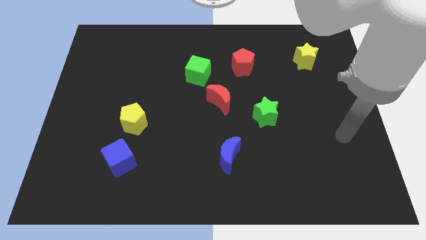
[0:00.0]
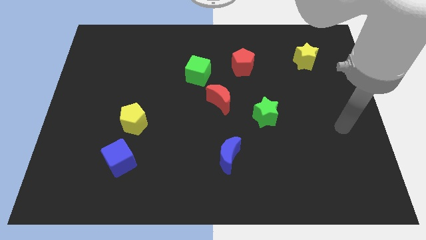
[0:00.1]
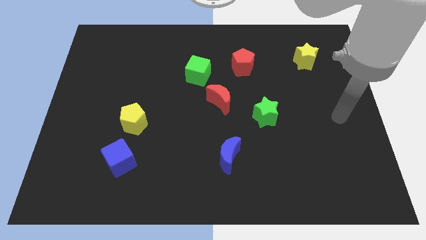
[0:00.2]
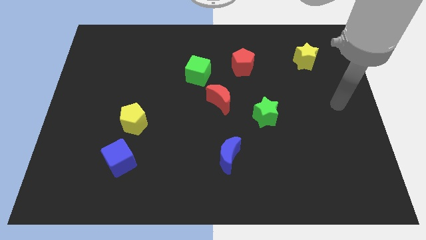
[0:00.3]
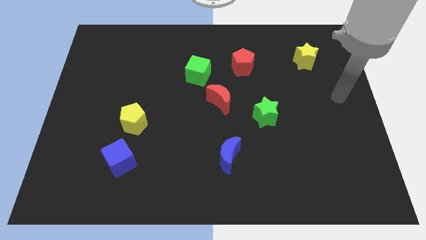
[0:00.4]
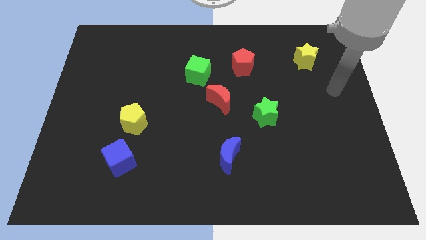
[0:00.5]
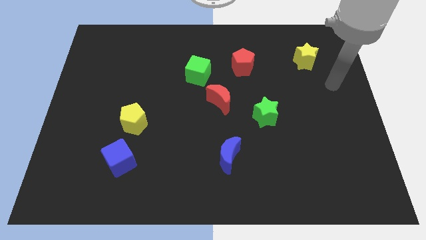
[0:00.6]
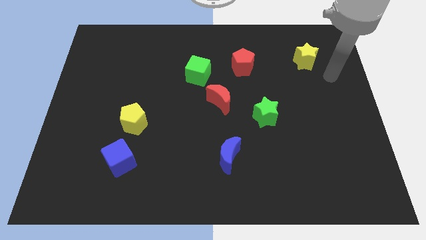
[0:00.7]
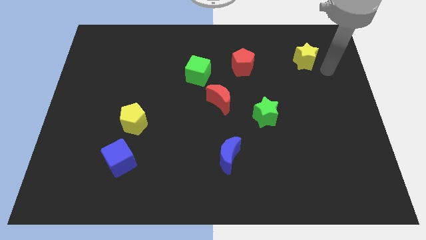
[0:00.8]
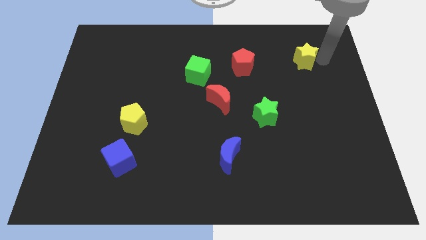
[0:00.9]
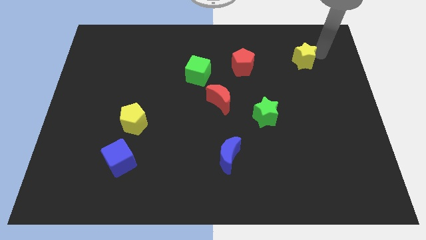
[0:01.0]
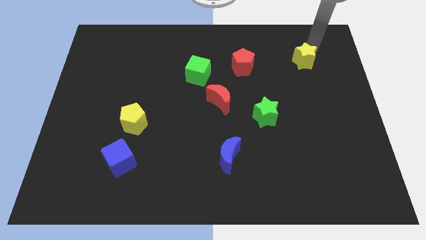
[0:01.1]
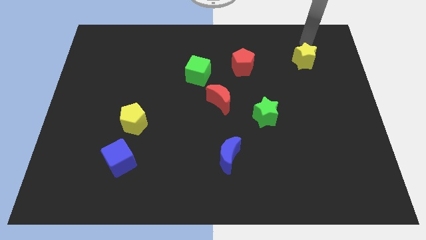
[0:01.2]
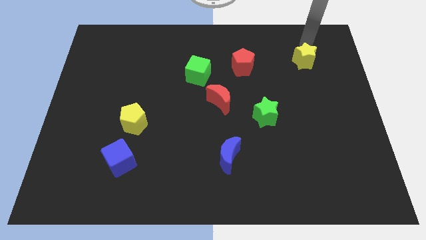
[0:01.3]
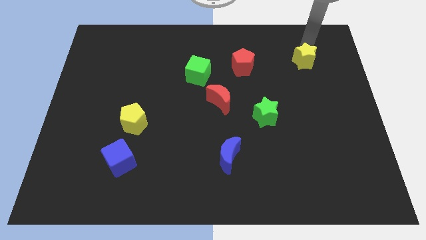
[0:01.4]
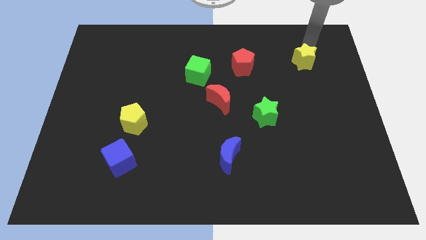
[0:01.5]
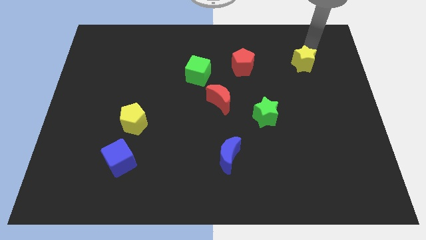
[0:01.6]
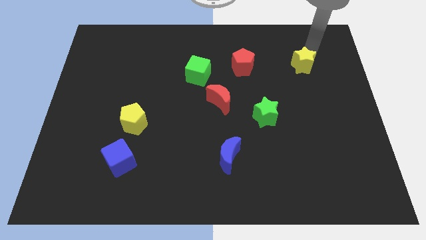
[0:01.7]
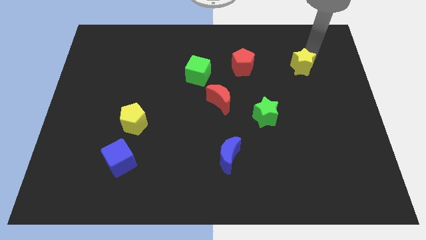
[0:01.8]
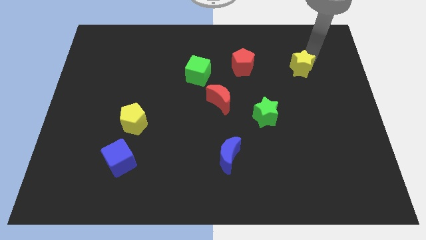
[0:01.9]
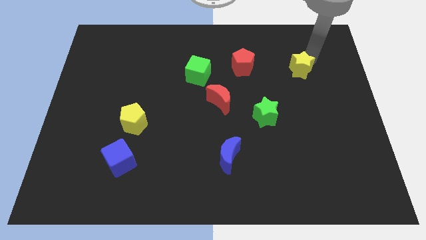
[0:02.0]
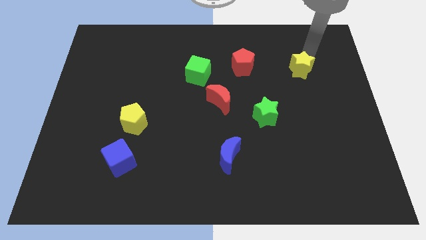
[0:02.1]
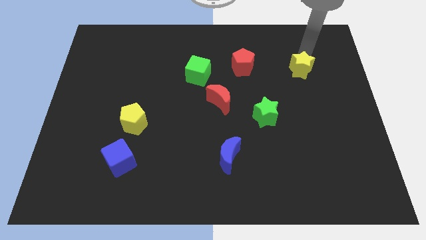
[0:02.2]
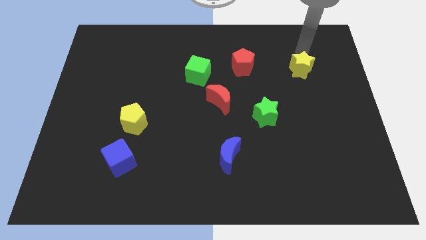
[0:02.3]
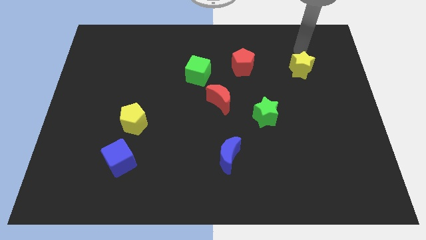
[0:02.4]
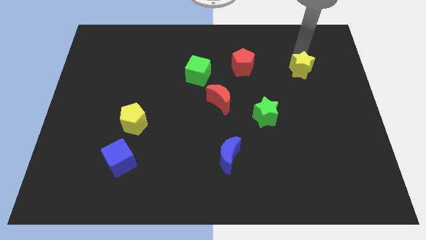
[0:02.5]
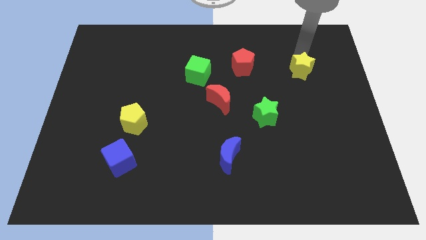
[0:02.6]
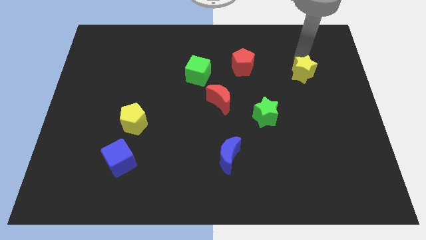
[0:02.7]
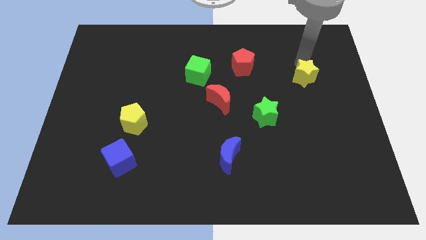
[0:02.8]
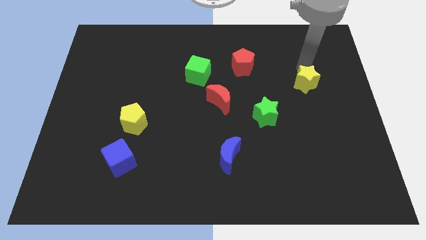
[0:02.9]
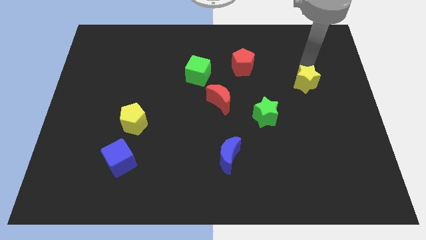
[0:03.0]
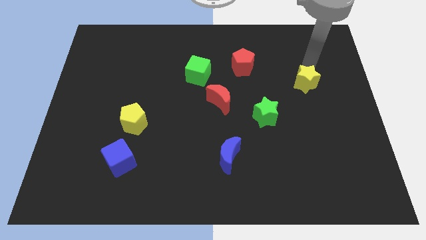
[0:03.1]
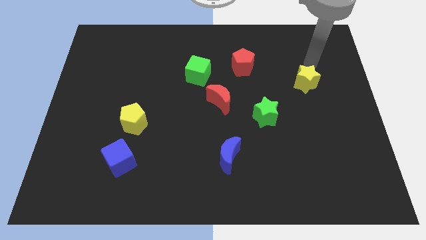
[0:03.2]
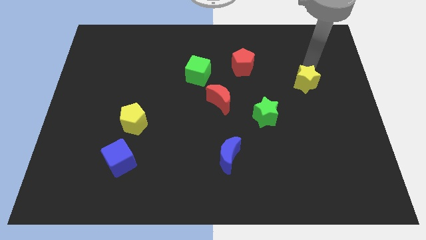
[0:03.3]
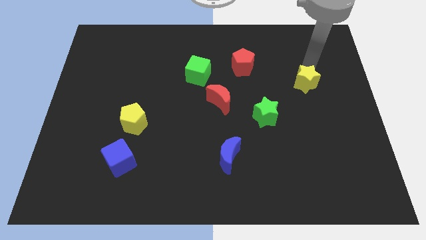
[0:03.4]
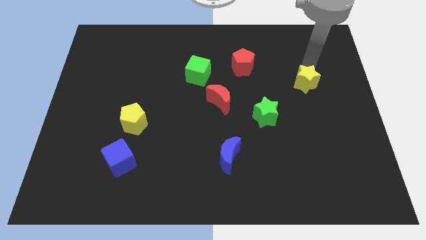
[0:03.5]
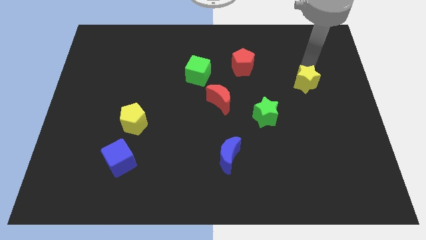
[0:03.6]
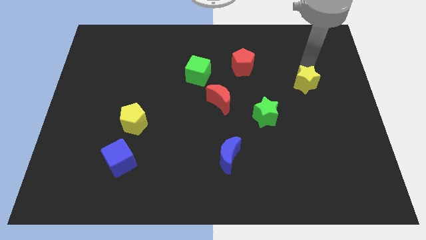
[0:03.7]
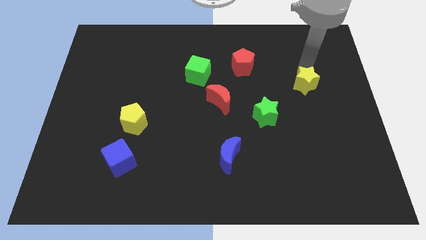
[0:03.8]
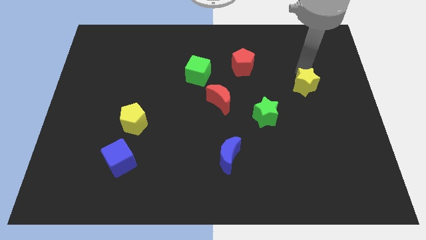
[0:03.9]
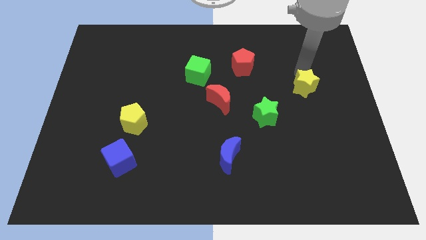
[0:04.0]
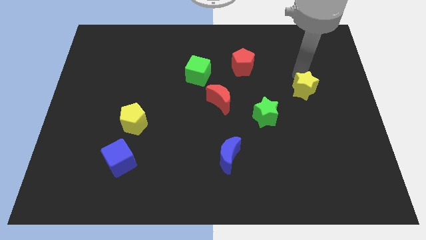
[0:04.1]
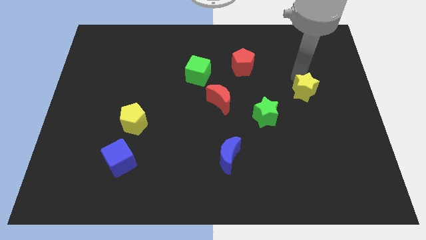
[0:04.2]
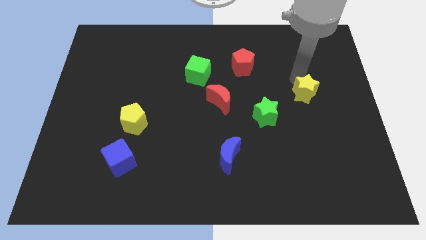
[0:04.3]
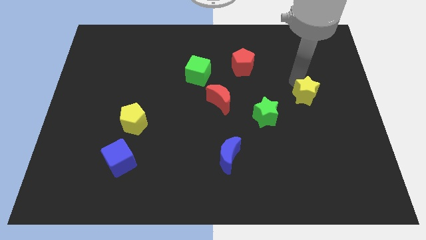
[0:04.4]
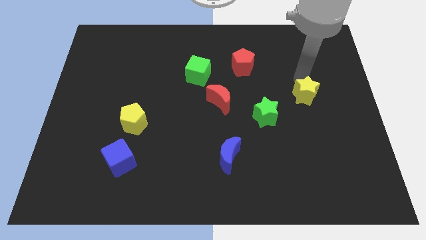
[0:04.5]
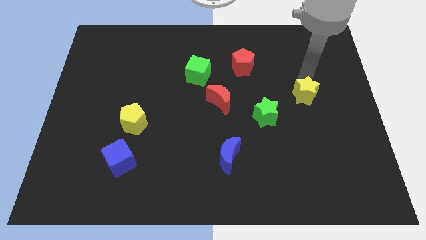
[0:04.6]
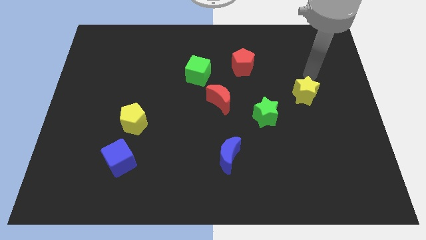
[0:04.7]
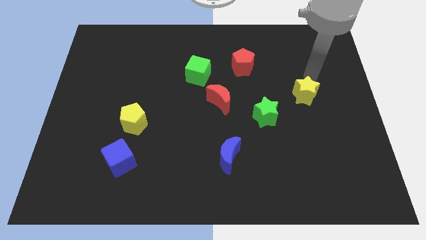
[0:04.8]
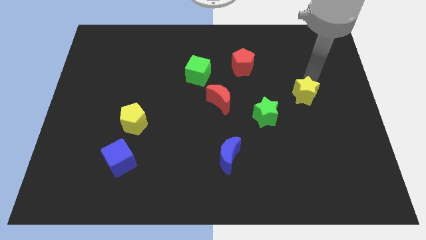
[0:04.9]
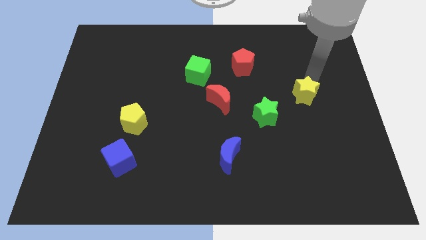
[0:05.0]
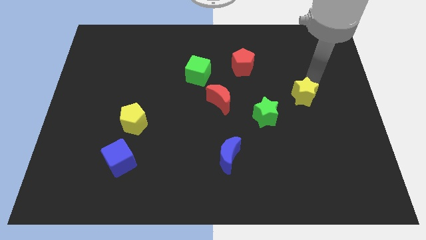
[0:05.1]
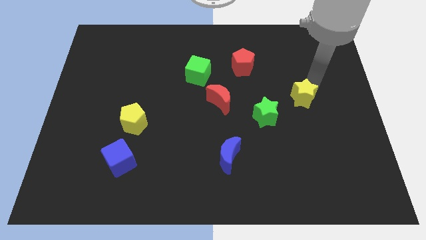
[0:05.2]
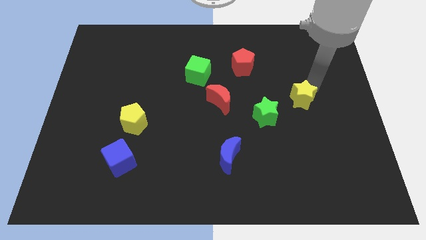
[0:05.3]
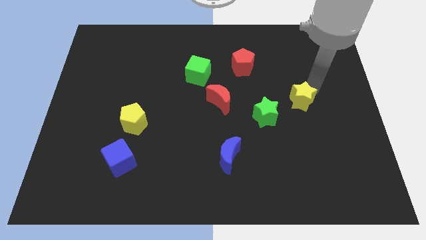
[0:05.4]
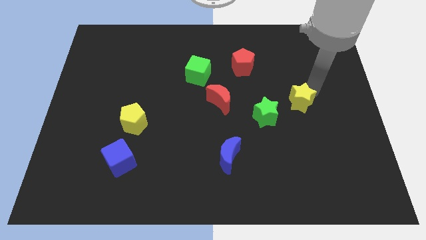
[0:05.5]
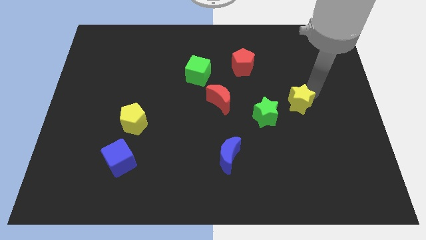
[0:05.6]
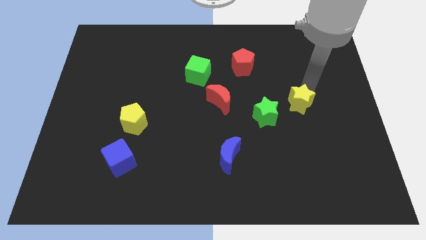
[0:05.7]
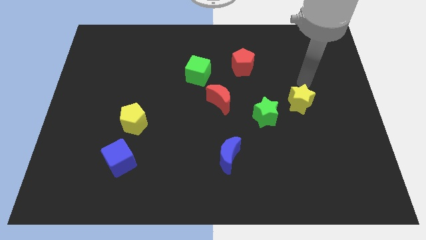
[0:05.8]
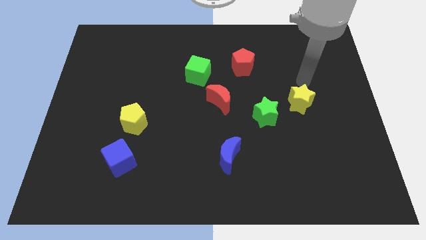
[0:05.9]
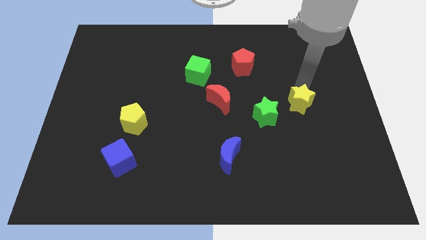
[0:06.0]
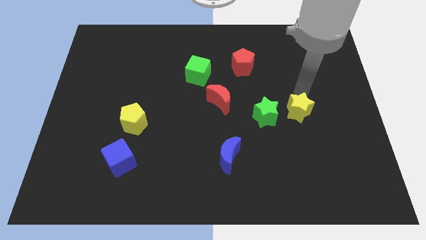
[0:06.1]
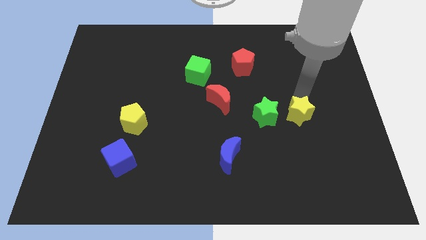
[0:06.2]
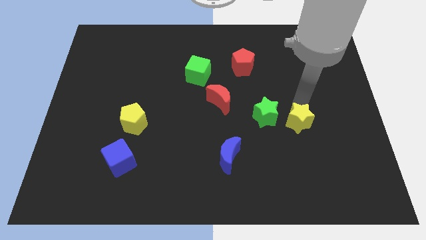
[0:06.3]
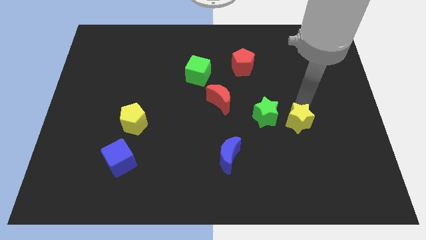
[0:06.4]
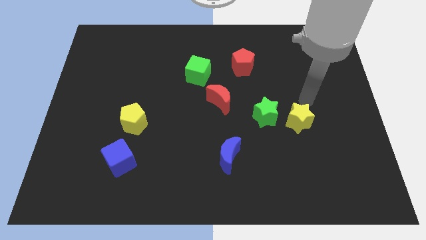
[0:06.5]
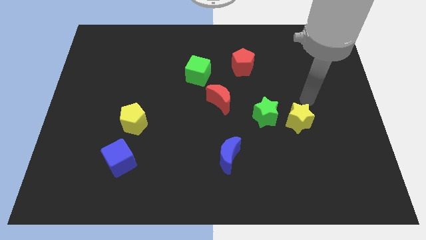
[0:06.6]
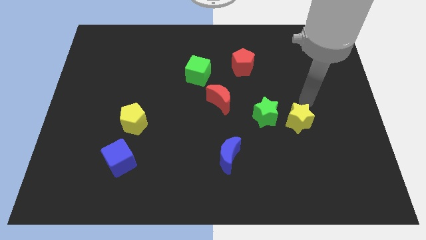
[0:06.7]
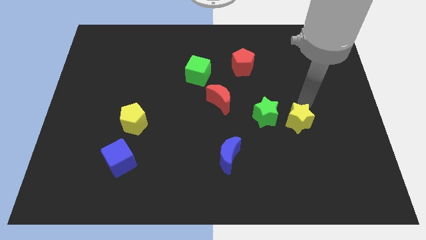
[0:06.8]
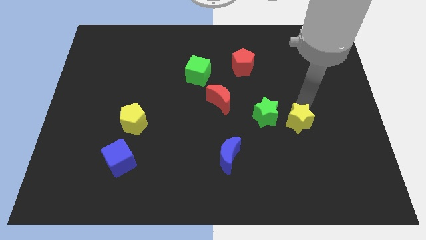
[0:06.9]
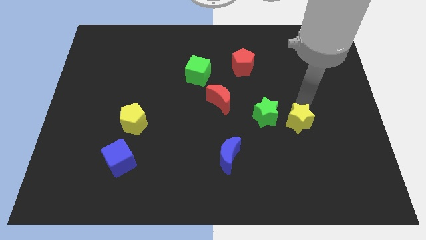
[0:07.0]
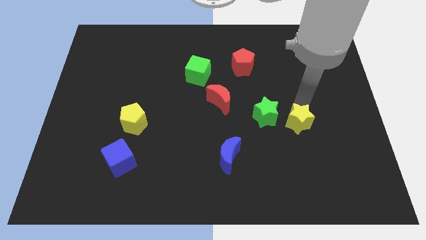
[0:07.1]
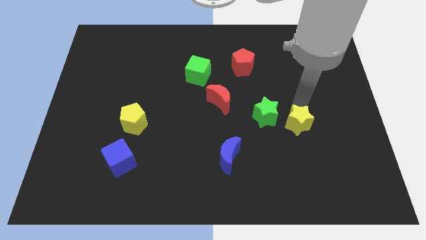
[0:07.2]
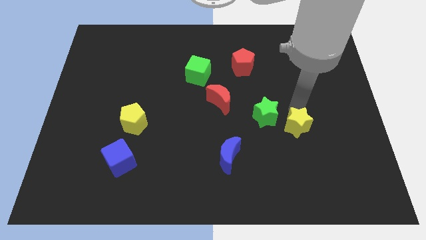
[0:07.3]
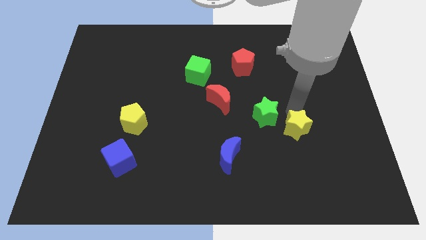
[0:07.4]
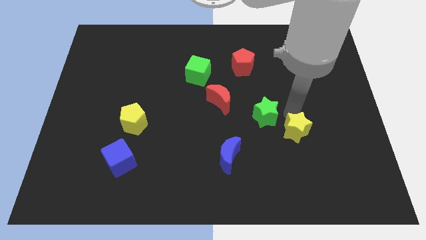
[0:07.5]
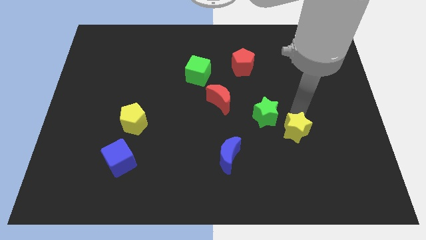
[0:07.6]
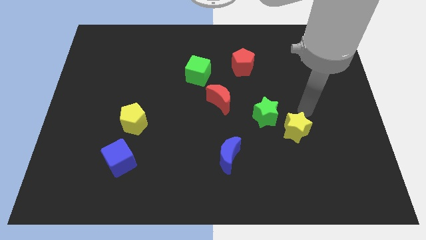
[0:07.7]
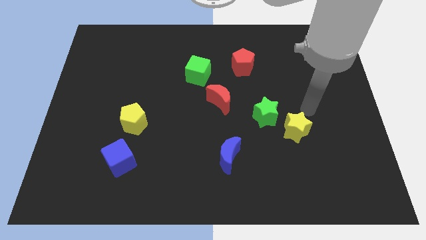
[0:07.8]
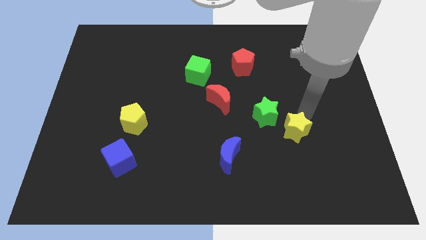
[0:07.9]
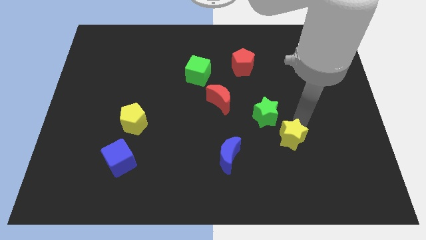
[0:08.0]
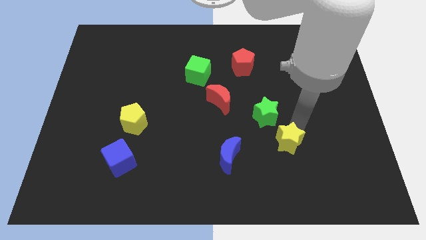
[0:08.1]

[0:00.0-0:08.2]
put the yellow star to the right of the blue moon
